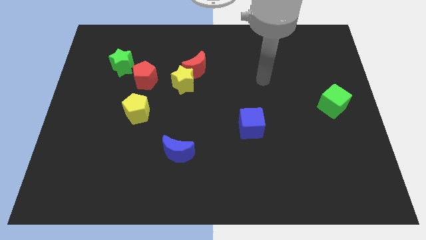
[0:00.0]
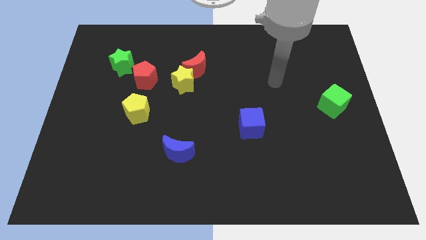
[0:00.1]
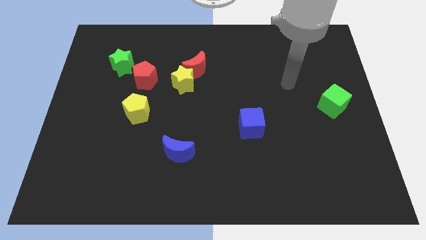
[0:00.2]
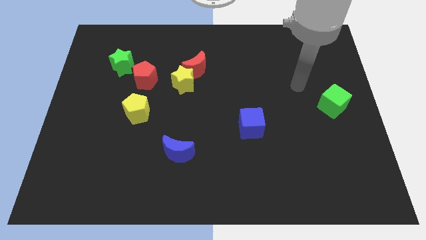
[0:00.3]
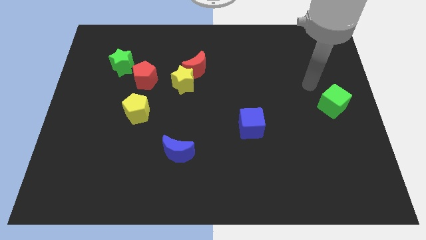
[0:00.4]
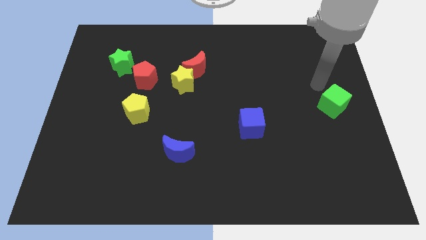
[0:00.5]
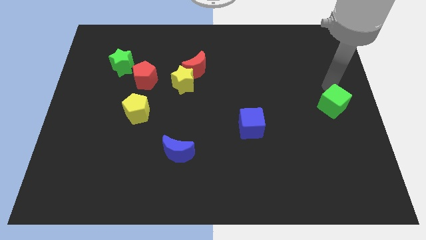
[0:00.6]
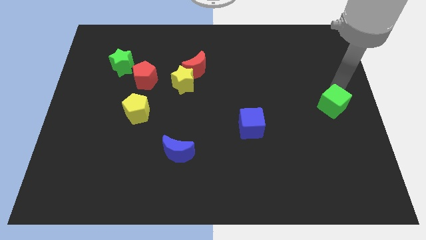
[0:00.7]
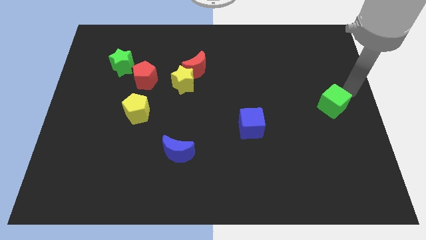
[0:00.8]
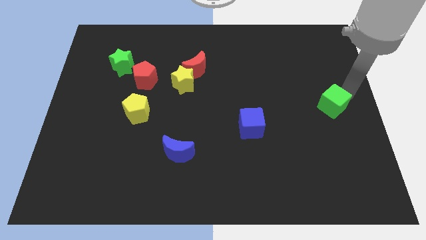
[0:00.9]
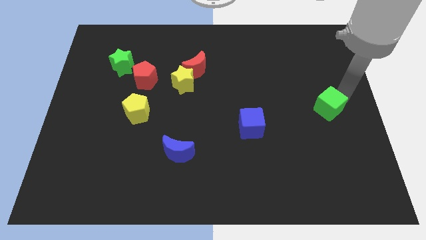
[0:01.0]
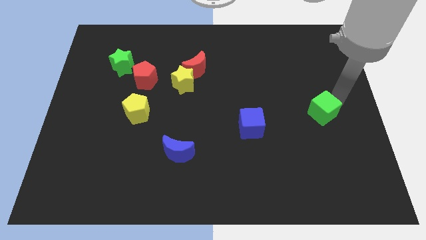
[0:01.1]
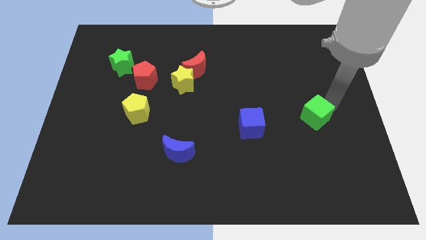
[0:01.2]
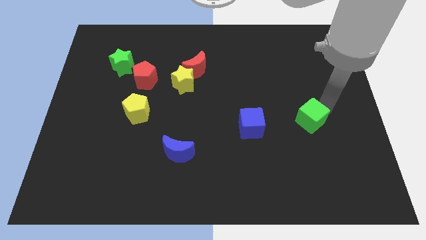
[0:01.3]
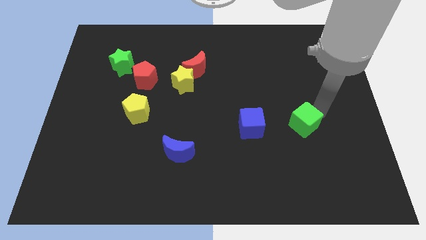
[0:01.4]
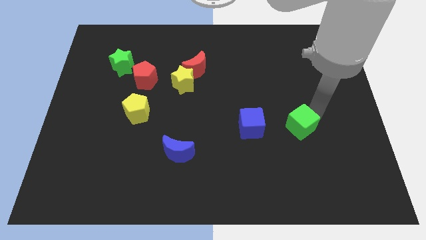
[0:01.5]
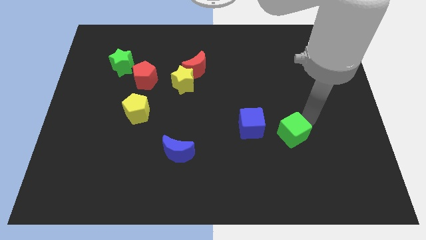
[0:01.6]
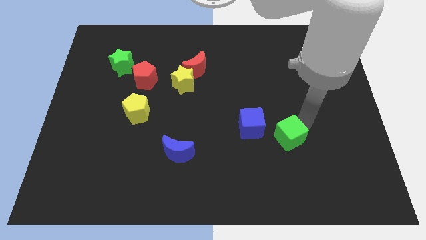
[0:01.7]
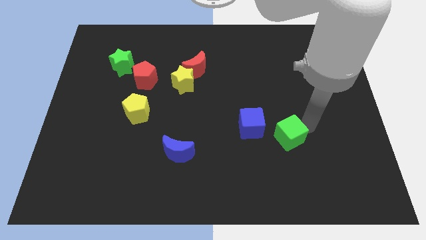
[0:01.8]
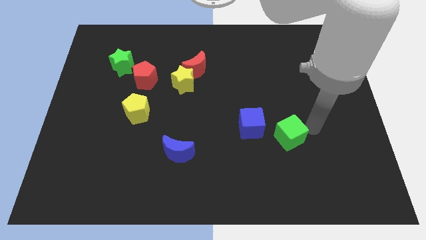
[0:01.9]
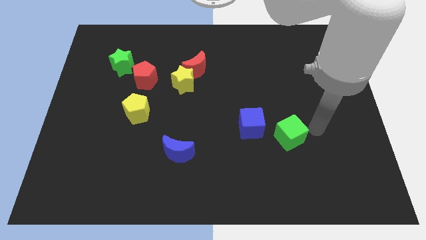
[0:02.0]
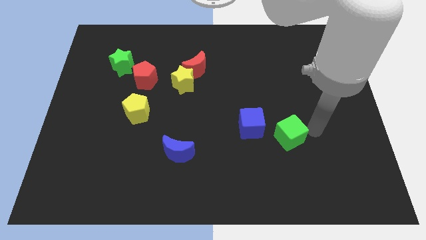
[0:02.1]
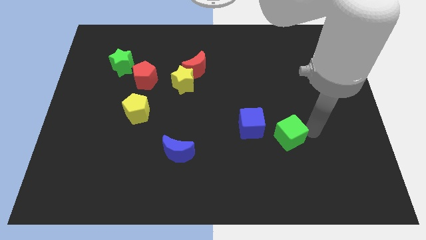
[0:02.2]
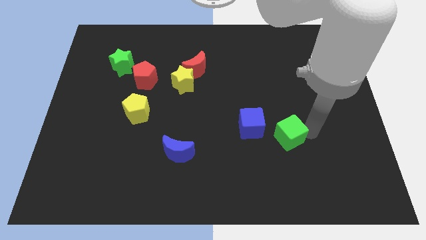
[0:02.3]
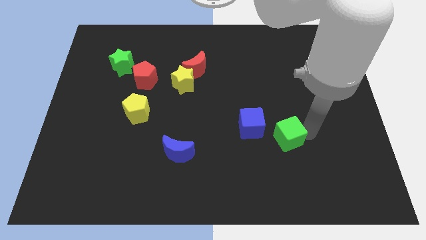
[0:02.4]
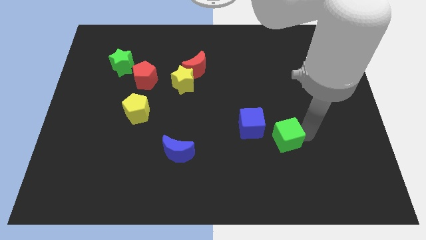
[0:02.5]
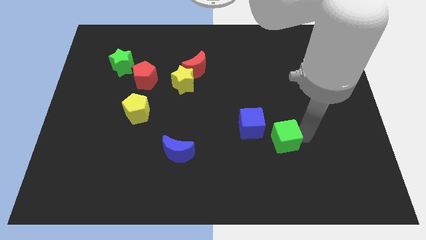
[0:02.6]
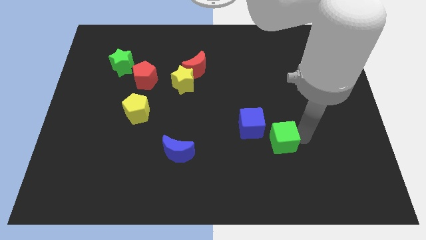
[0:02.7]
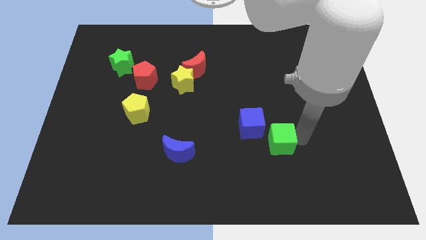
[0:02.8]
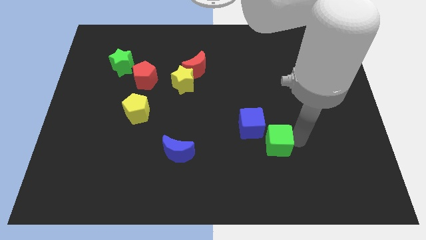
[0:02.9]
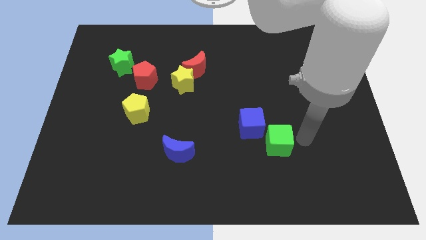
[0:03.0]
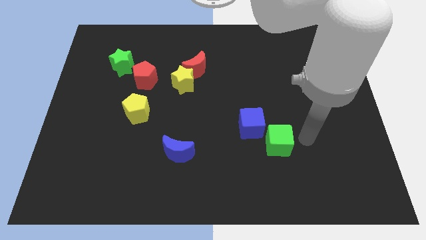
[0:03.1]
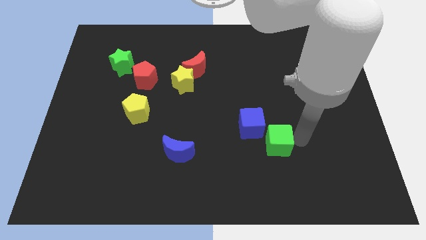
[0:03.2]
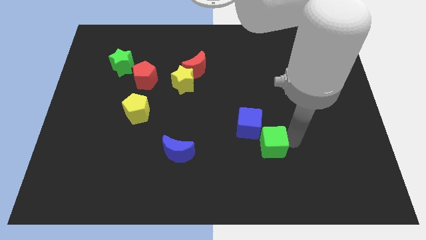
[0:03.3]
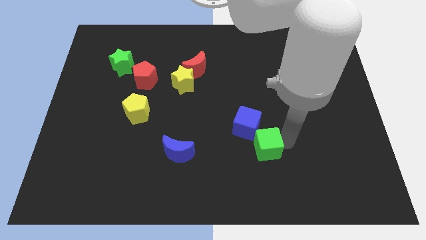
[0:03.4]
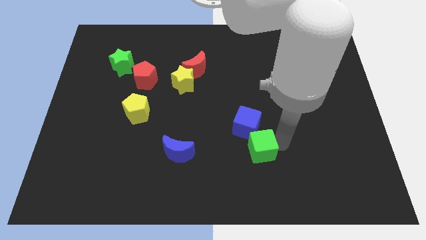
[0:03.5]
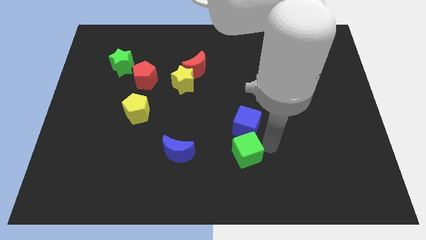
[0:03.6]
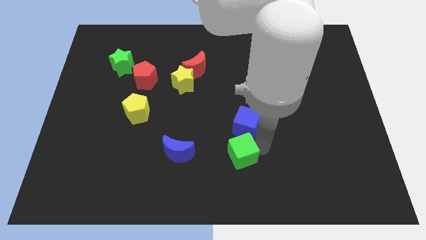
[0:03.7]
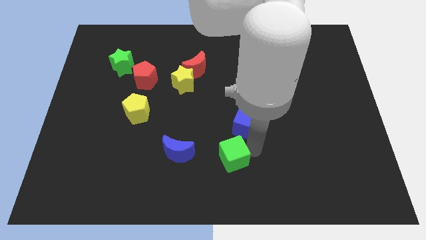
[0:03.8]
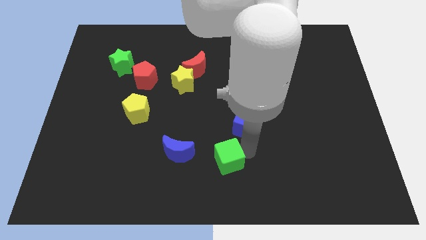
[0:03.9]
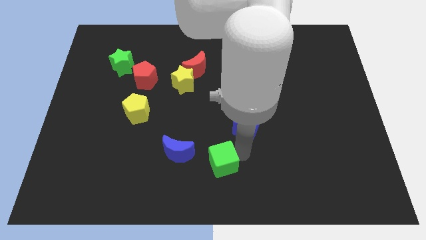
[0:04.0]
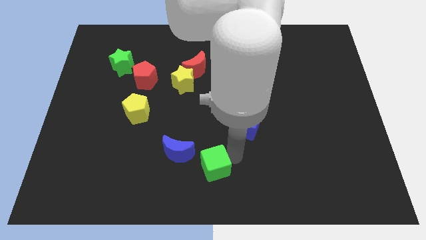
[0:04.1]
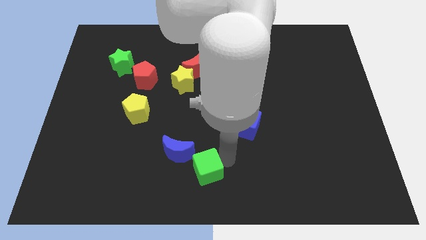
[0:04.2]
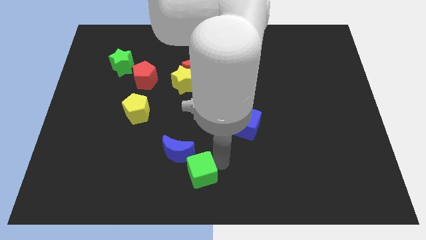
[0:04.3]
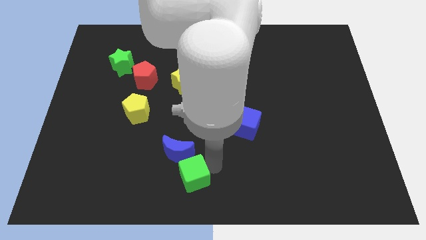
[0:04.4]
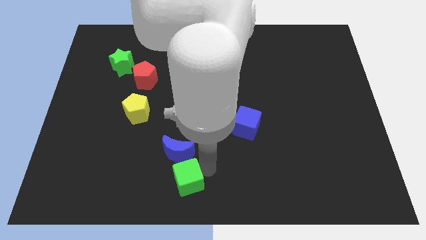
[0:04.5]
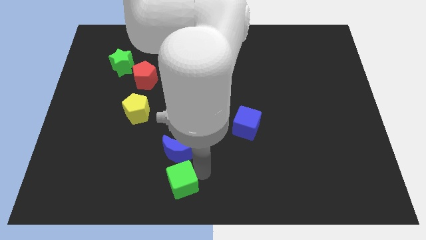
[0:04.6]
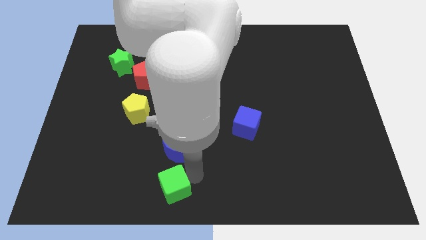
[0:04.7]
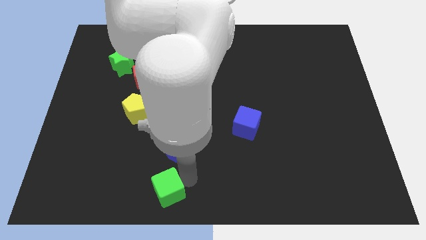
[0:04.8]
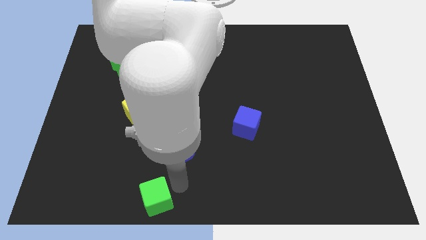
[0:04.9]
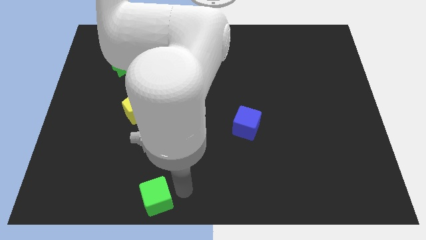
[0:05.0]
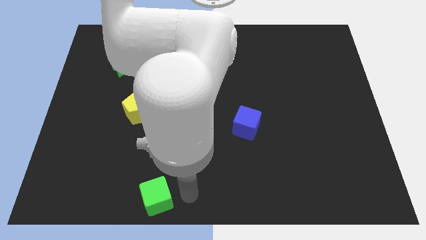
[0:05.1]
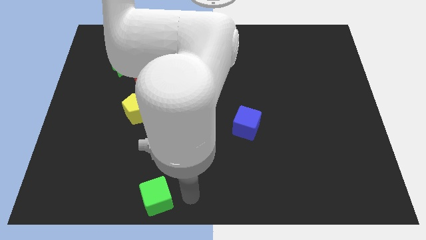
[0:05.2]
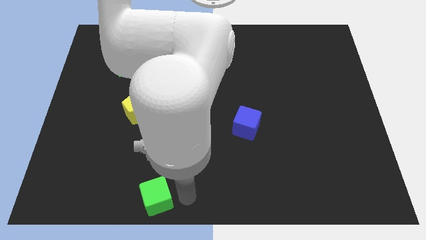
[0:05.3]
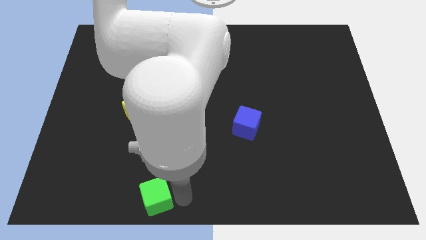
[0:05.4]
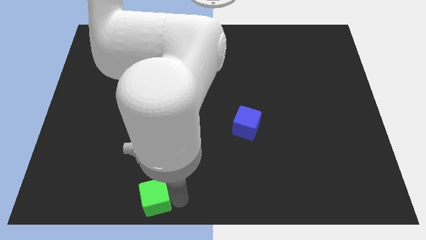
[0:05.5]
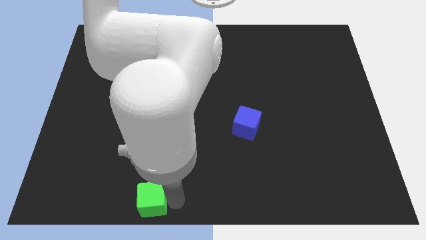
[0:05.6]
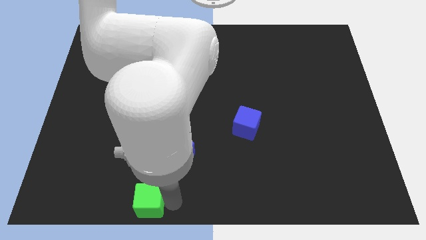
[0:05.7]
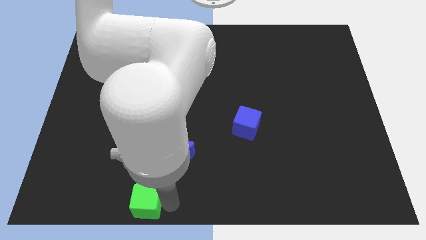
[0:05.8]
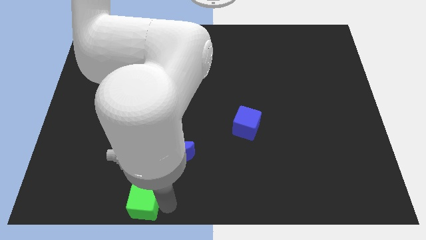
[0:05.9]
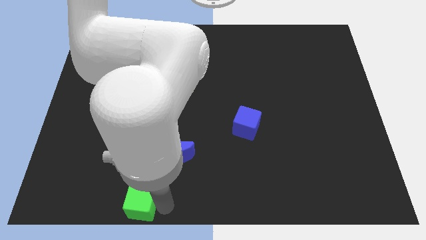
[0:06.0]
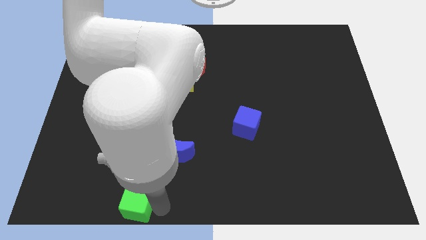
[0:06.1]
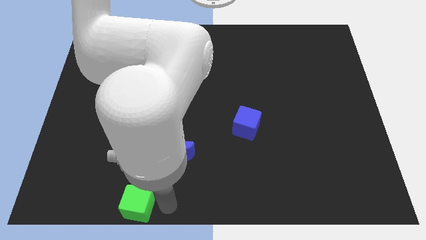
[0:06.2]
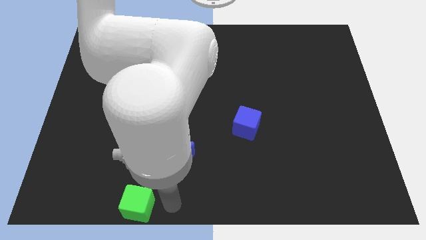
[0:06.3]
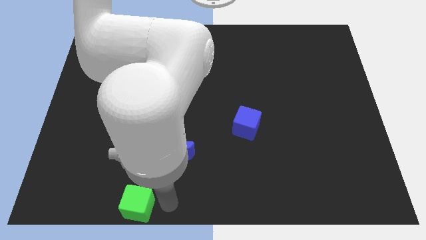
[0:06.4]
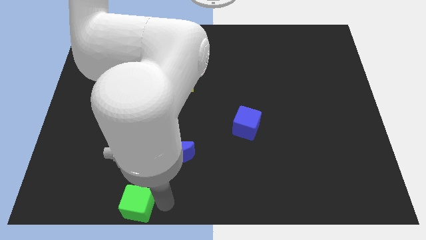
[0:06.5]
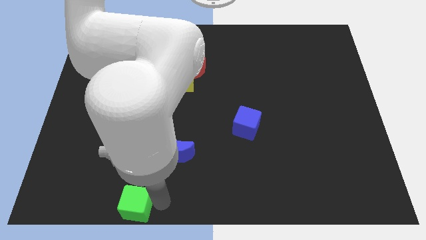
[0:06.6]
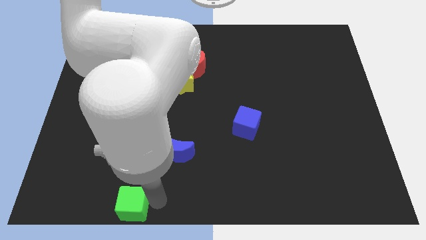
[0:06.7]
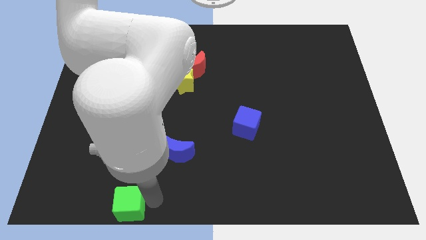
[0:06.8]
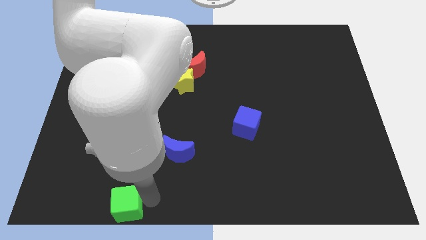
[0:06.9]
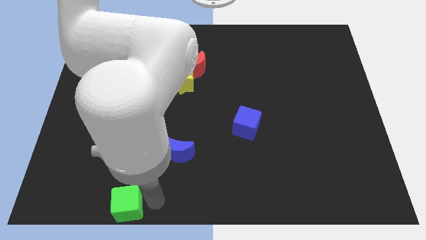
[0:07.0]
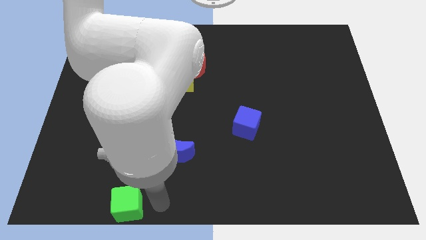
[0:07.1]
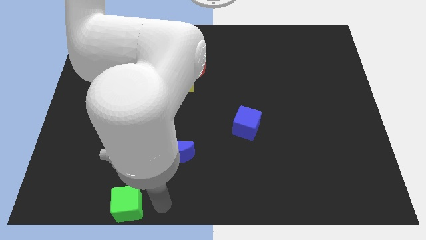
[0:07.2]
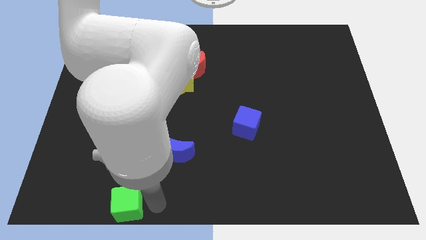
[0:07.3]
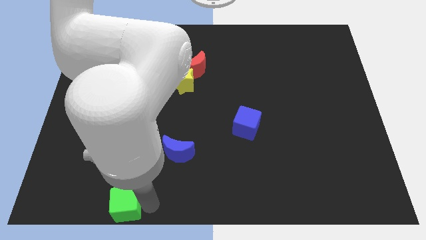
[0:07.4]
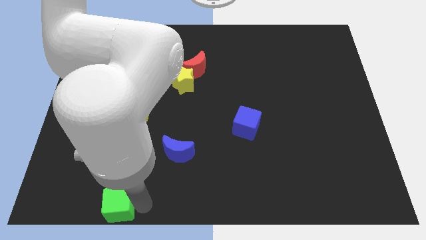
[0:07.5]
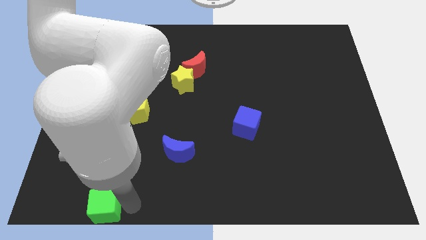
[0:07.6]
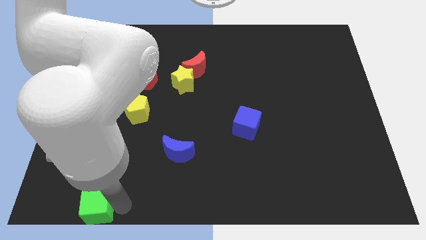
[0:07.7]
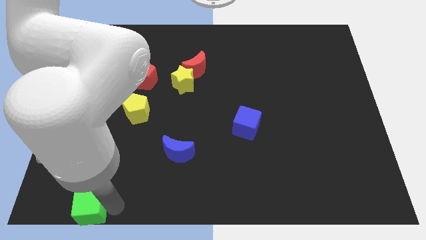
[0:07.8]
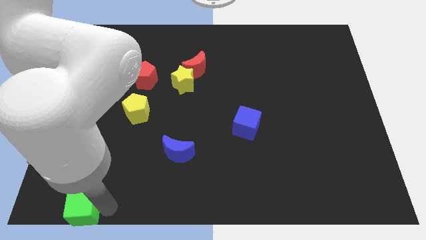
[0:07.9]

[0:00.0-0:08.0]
slide the green cube to the bottom left corner
